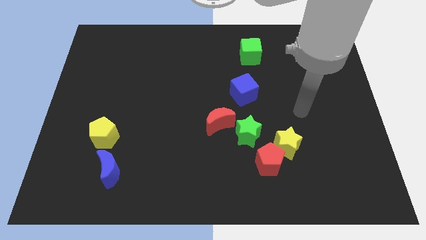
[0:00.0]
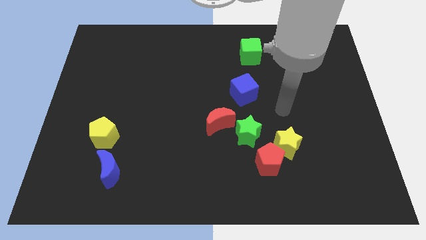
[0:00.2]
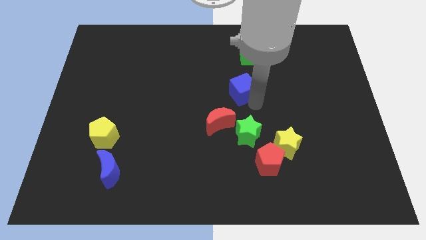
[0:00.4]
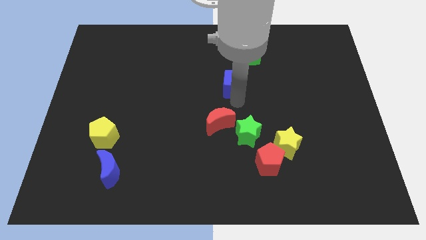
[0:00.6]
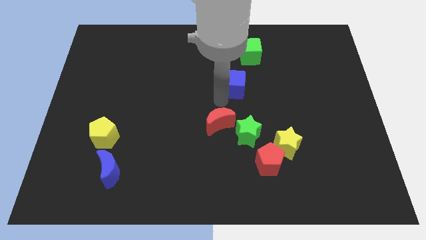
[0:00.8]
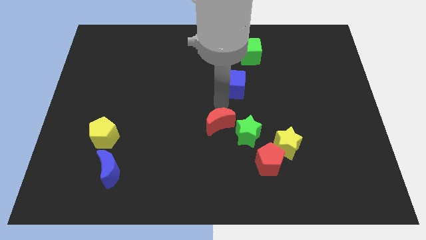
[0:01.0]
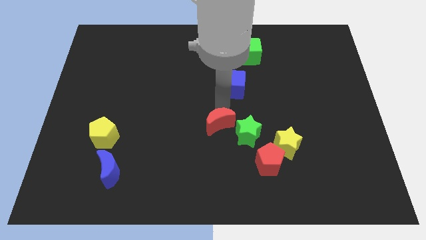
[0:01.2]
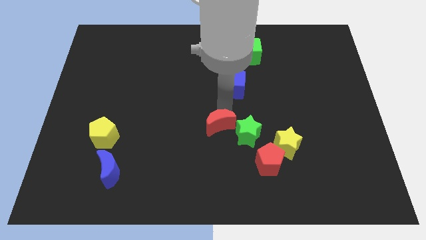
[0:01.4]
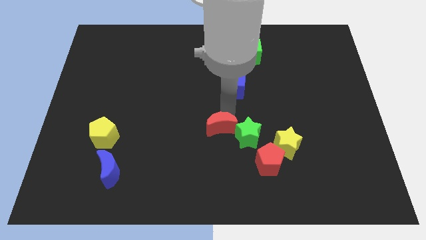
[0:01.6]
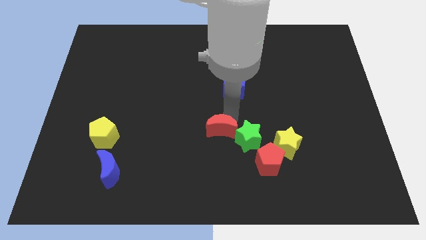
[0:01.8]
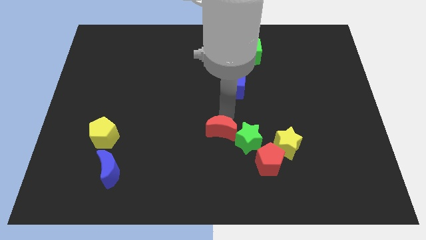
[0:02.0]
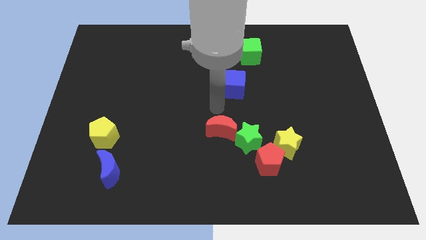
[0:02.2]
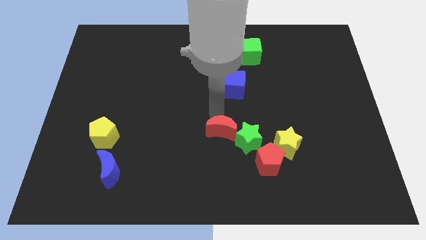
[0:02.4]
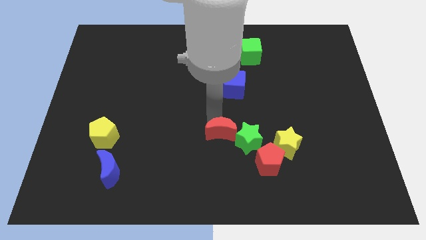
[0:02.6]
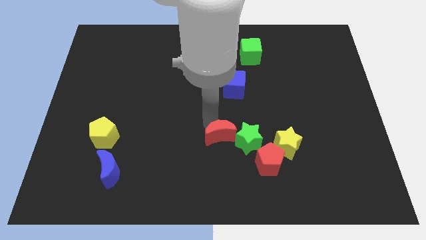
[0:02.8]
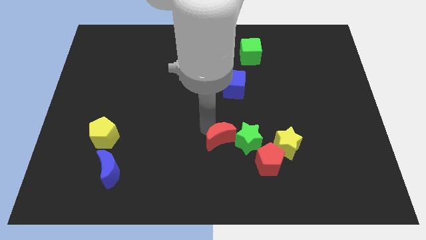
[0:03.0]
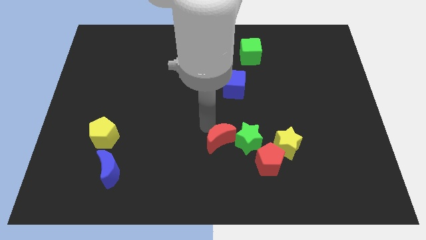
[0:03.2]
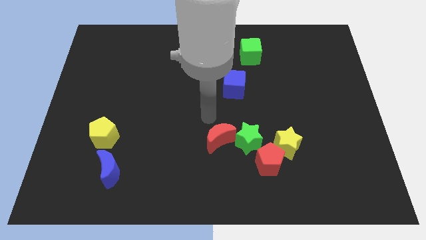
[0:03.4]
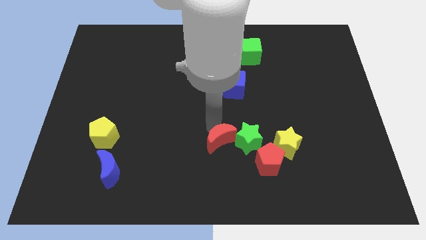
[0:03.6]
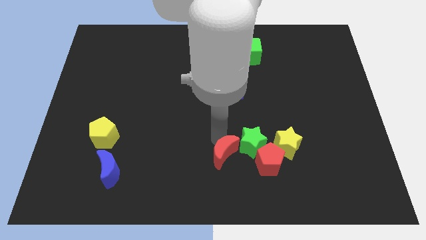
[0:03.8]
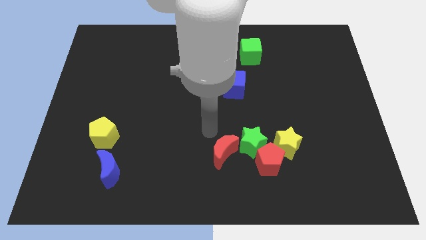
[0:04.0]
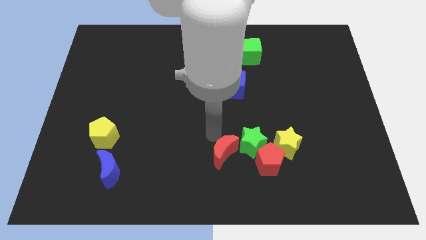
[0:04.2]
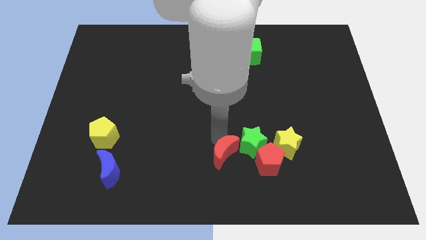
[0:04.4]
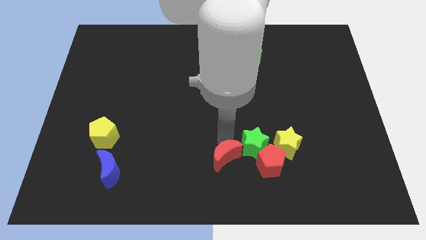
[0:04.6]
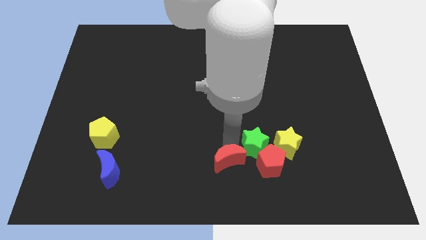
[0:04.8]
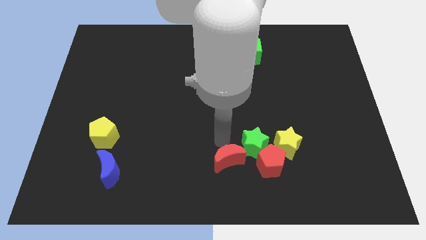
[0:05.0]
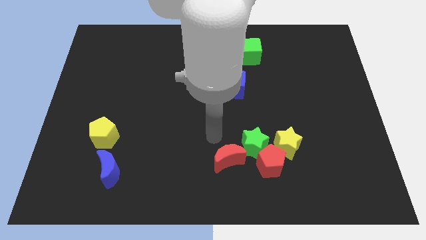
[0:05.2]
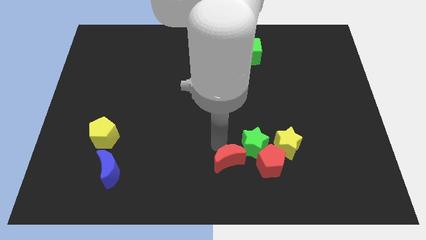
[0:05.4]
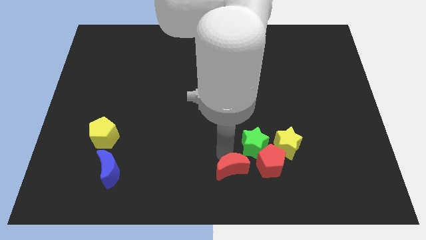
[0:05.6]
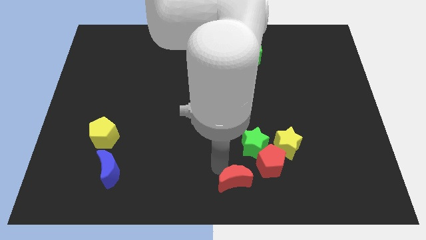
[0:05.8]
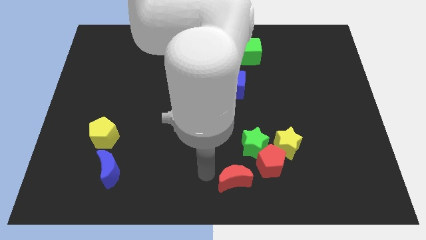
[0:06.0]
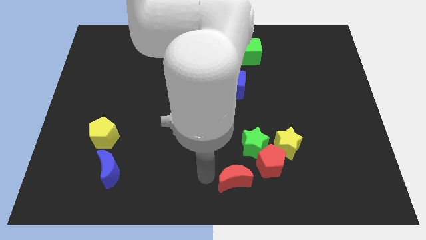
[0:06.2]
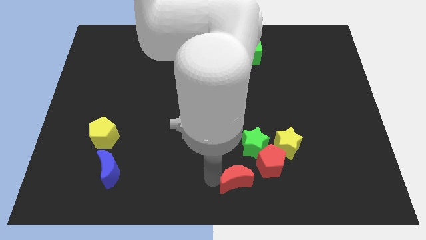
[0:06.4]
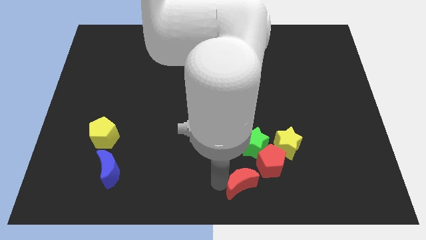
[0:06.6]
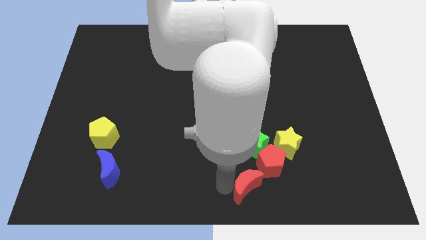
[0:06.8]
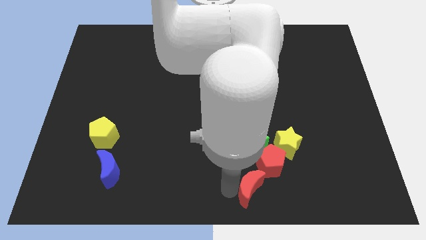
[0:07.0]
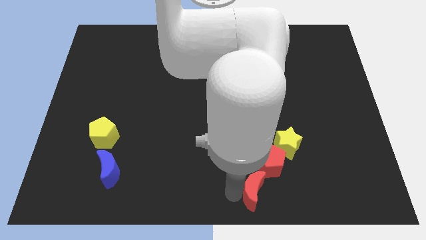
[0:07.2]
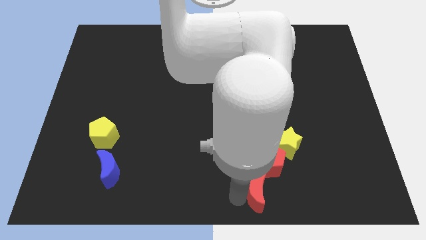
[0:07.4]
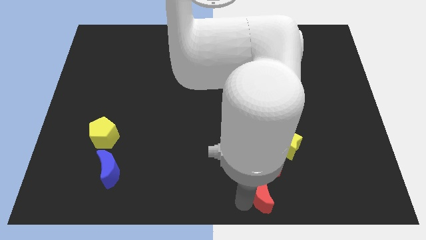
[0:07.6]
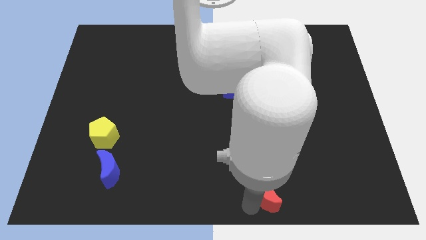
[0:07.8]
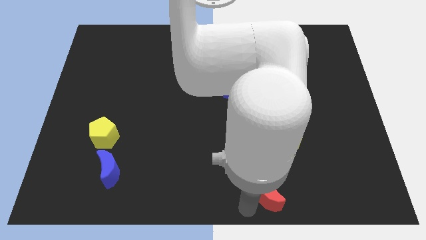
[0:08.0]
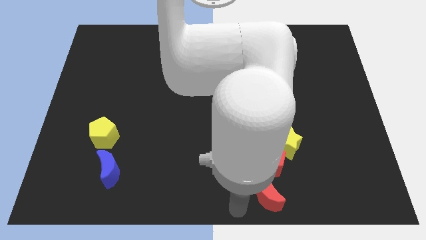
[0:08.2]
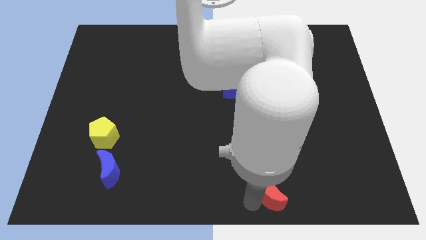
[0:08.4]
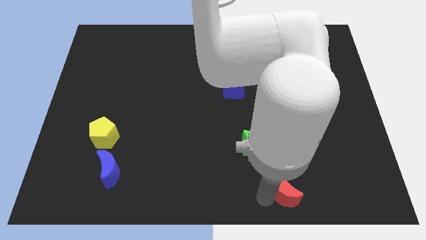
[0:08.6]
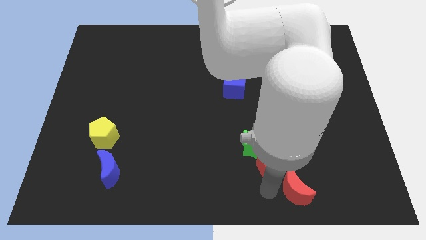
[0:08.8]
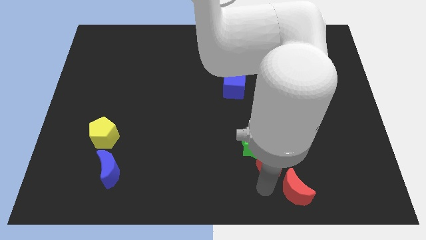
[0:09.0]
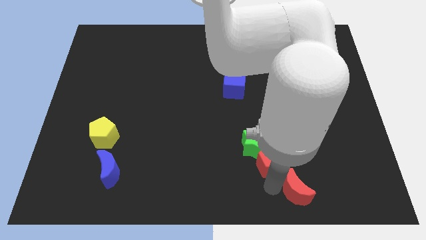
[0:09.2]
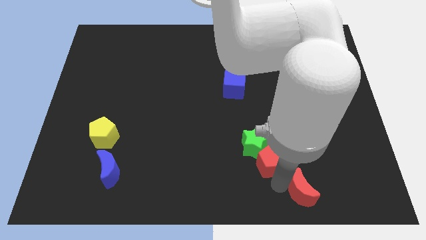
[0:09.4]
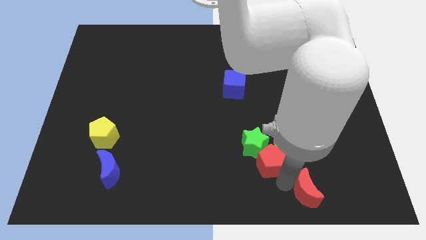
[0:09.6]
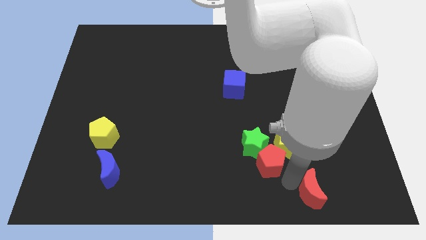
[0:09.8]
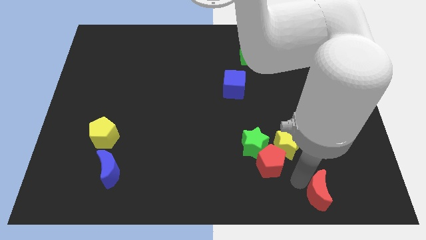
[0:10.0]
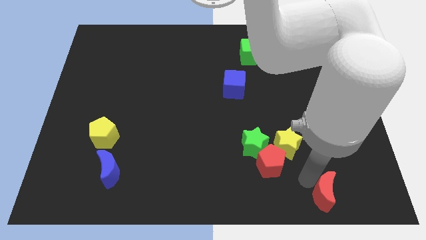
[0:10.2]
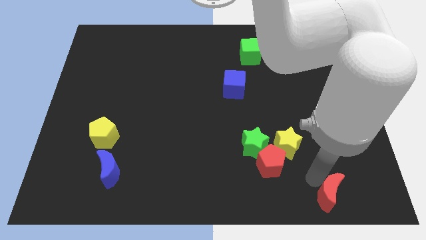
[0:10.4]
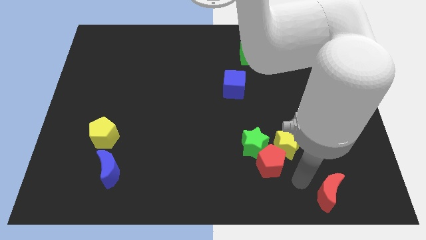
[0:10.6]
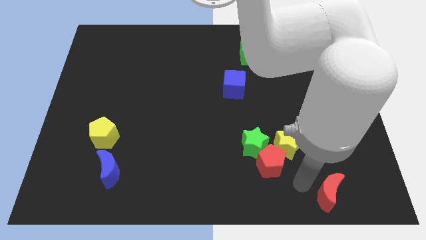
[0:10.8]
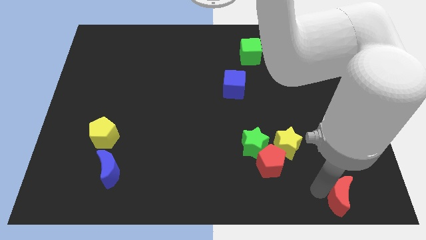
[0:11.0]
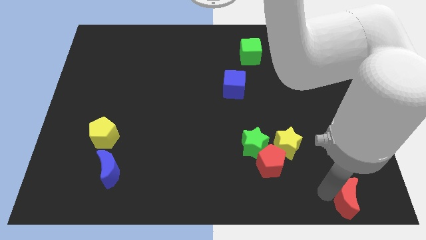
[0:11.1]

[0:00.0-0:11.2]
put the red moon to the bottom right of the board

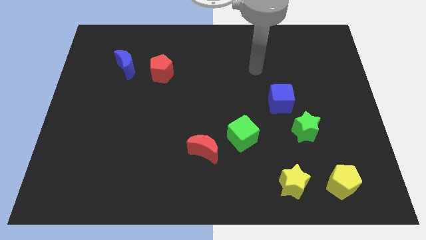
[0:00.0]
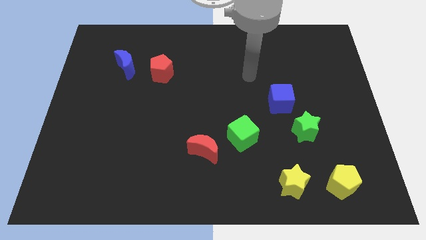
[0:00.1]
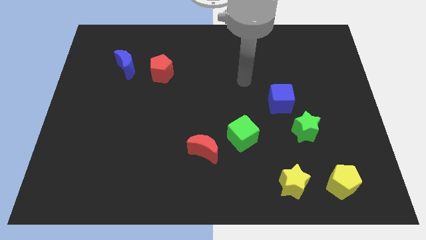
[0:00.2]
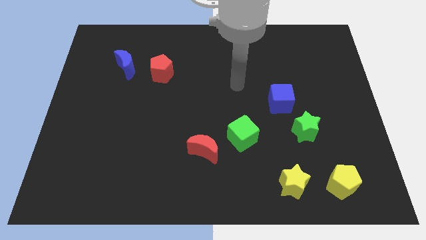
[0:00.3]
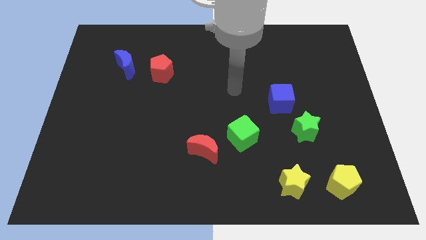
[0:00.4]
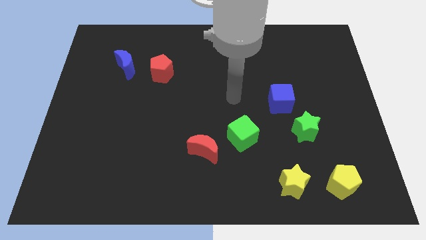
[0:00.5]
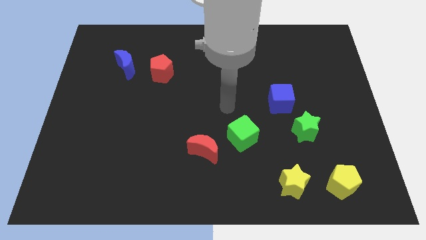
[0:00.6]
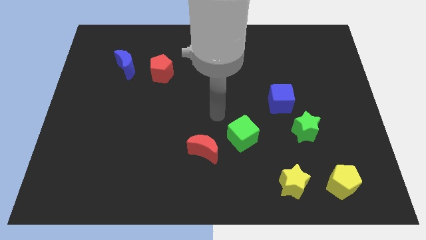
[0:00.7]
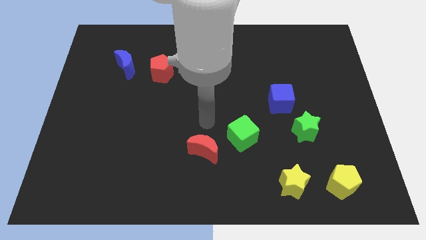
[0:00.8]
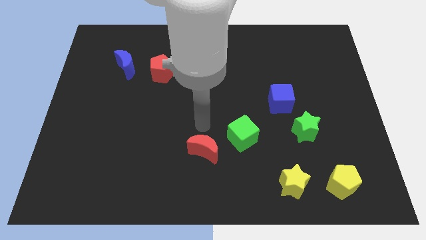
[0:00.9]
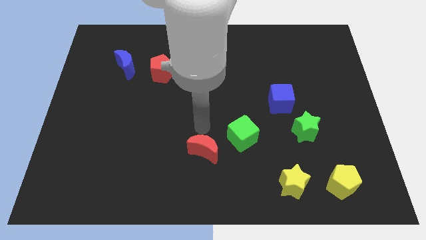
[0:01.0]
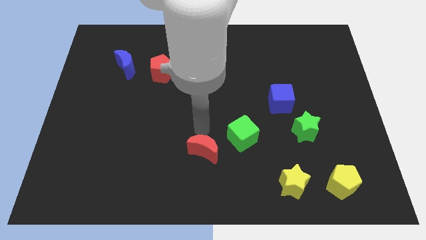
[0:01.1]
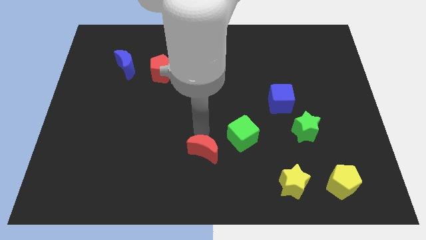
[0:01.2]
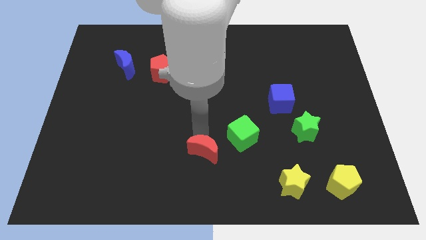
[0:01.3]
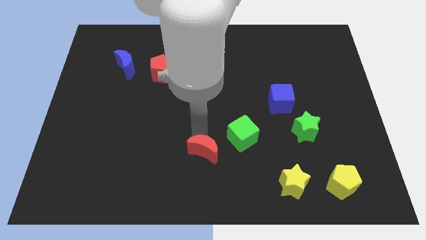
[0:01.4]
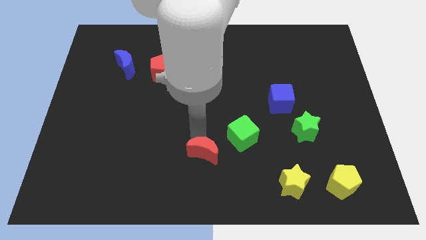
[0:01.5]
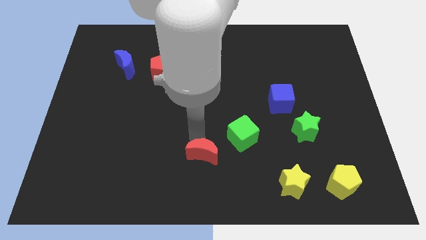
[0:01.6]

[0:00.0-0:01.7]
put the red moon to the bottom side
